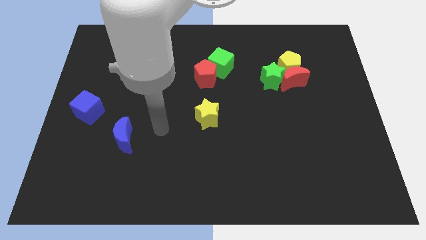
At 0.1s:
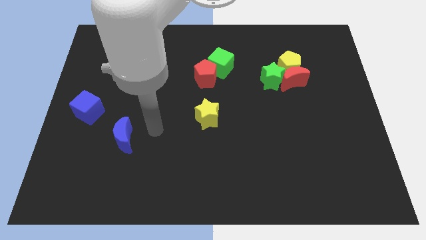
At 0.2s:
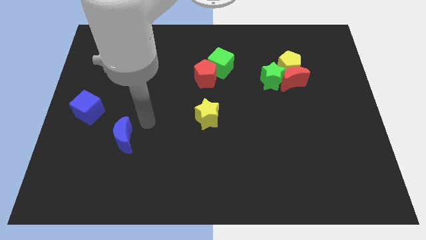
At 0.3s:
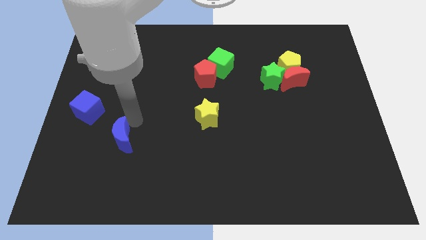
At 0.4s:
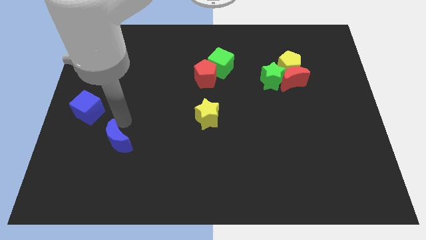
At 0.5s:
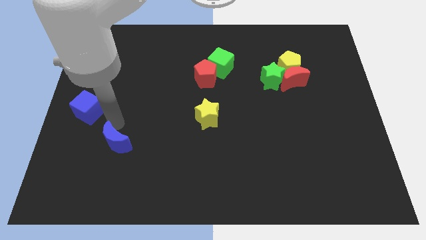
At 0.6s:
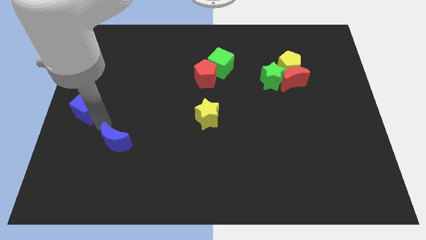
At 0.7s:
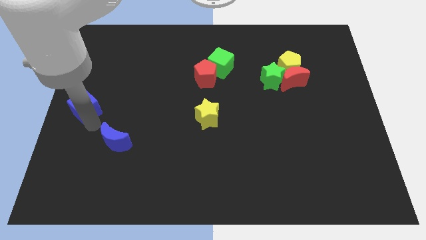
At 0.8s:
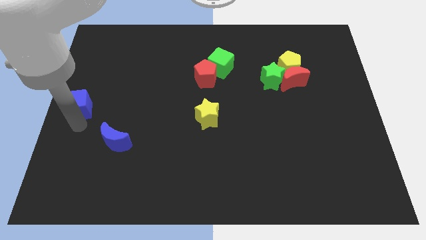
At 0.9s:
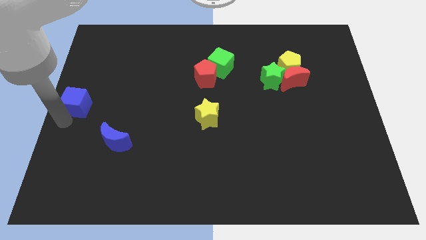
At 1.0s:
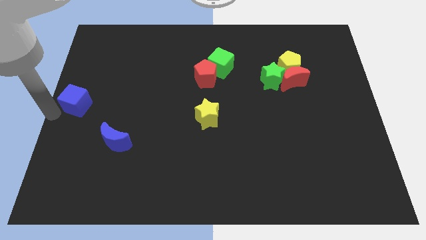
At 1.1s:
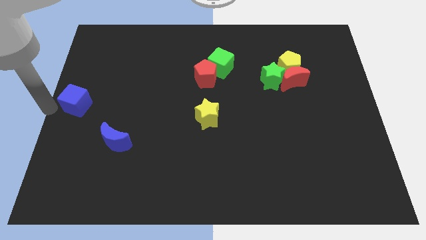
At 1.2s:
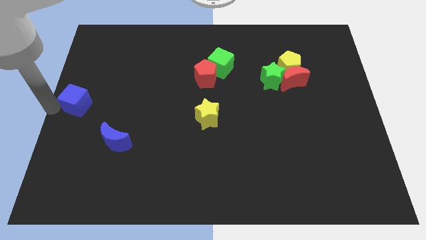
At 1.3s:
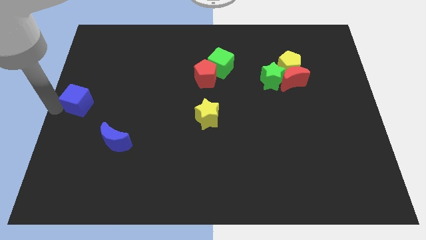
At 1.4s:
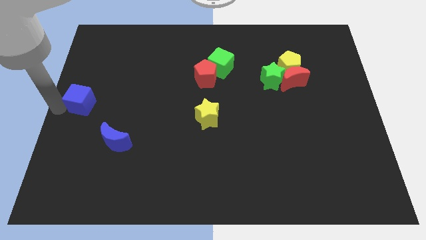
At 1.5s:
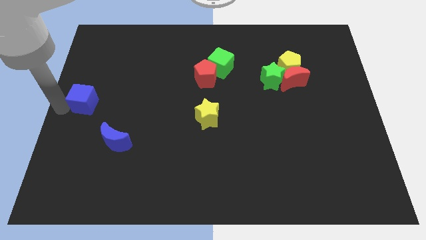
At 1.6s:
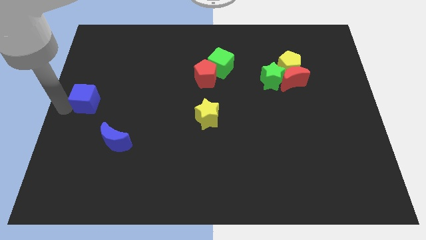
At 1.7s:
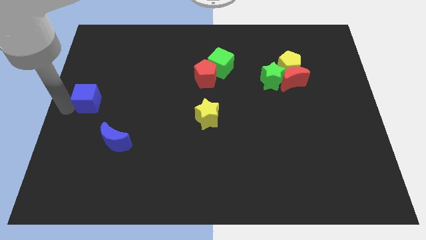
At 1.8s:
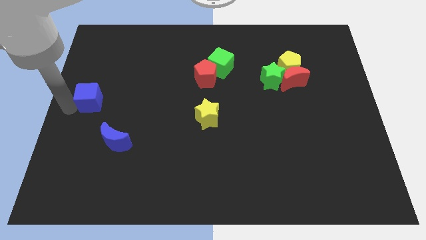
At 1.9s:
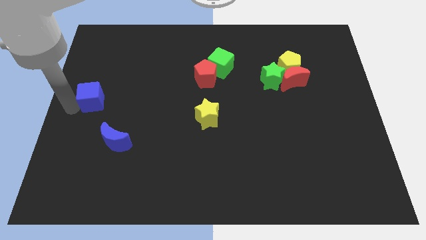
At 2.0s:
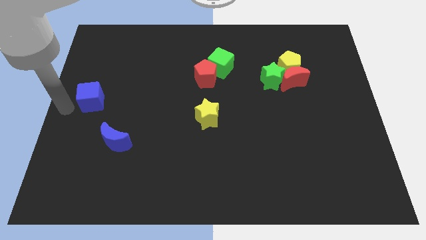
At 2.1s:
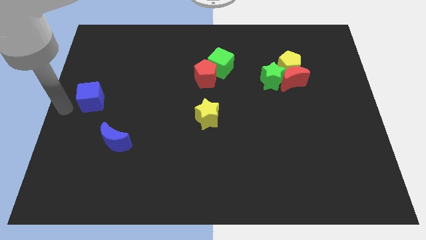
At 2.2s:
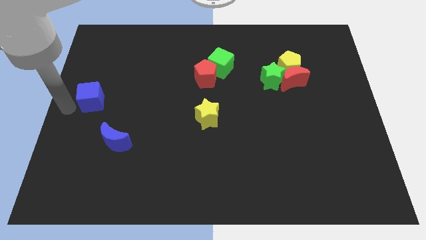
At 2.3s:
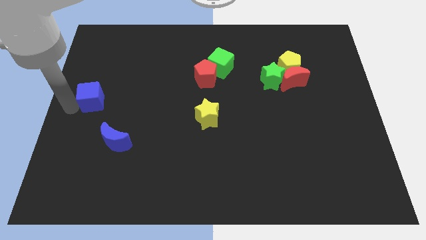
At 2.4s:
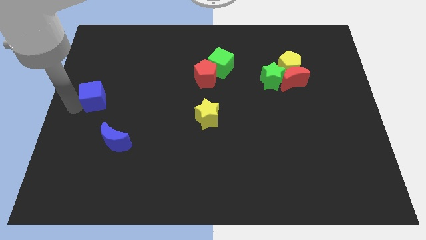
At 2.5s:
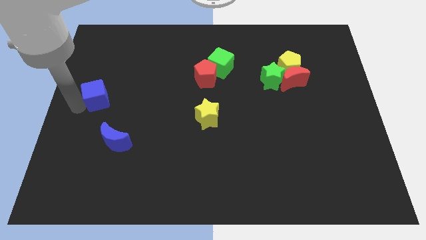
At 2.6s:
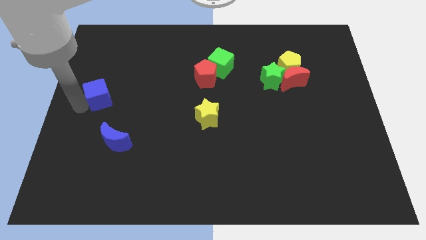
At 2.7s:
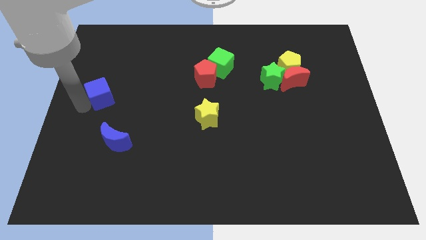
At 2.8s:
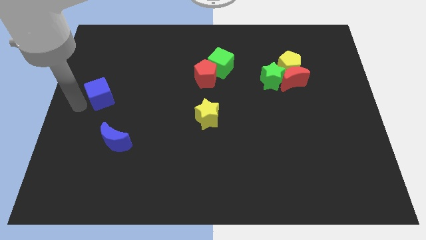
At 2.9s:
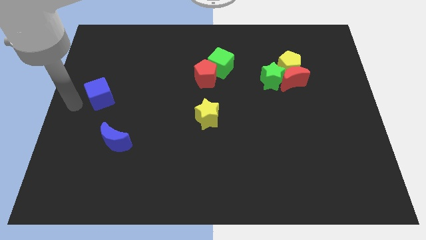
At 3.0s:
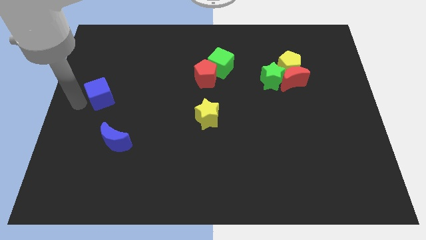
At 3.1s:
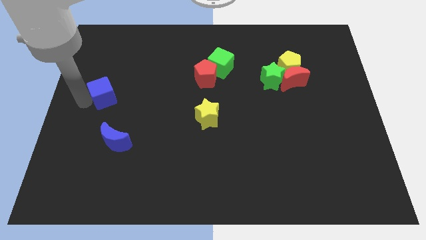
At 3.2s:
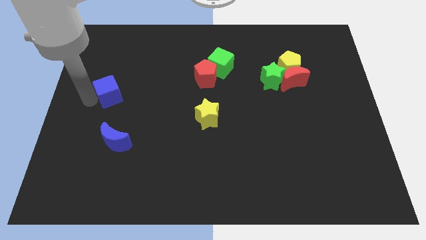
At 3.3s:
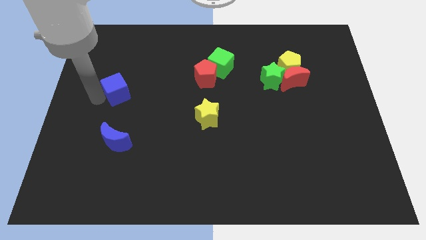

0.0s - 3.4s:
slightly slide the blue cube upwards and then to the right

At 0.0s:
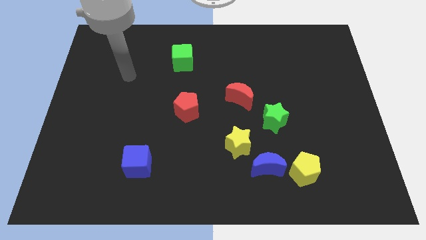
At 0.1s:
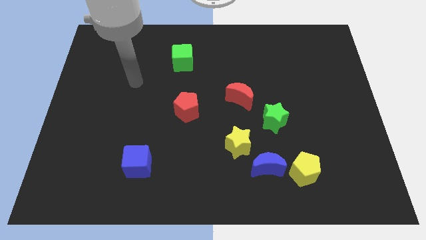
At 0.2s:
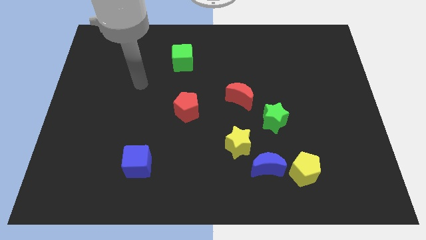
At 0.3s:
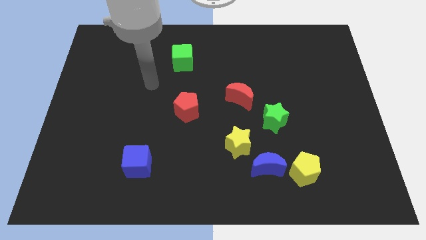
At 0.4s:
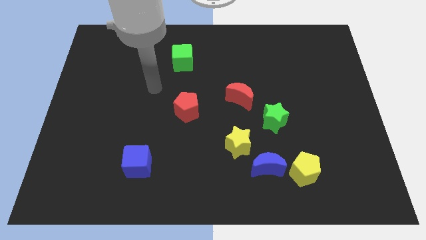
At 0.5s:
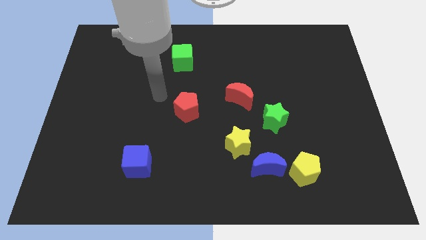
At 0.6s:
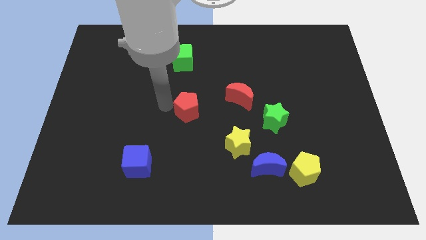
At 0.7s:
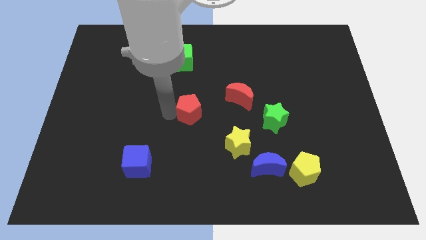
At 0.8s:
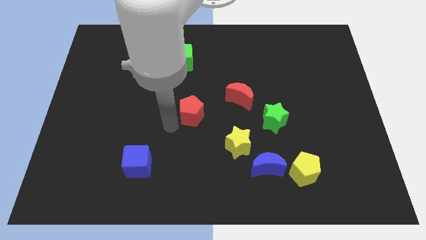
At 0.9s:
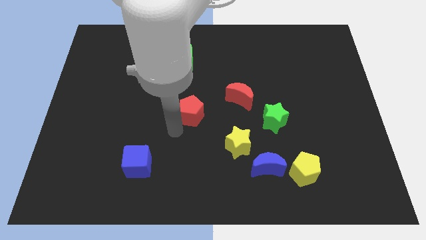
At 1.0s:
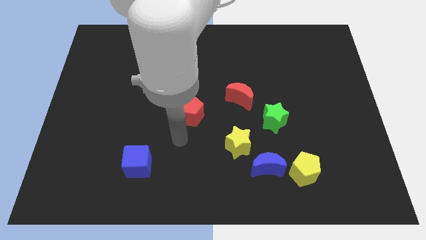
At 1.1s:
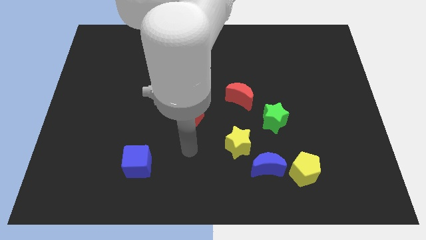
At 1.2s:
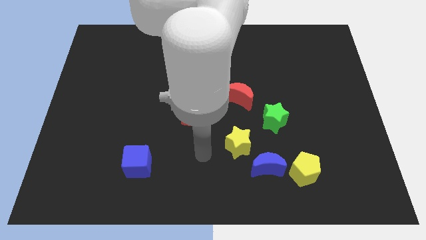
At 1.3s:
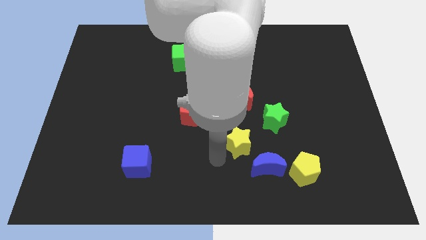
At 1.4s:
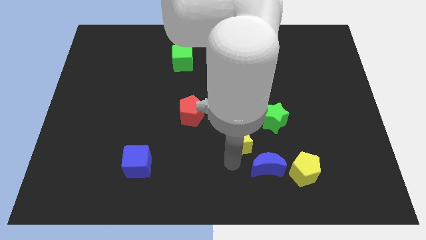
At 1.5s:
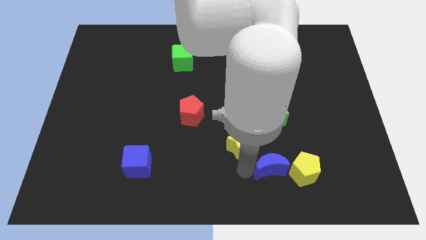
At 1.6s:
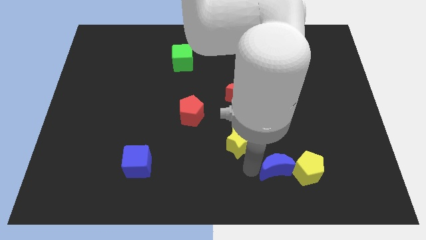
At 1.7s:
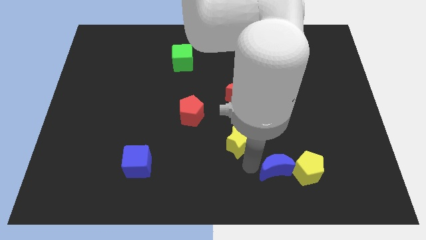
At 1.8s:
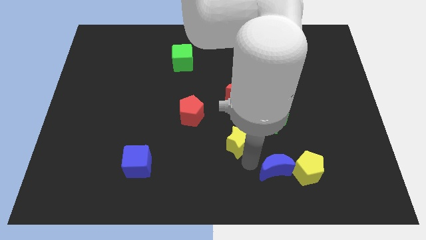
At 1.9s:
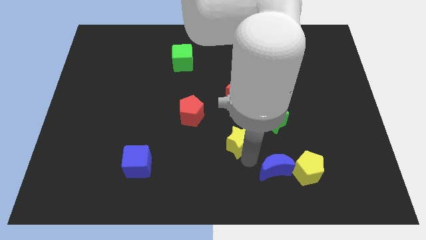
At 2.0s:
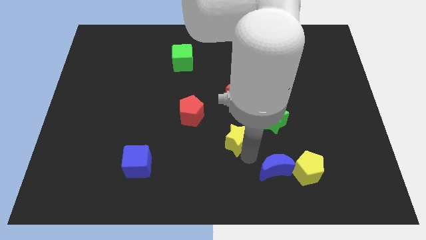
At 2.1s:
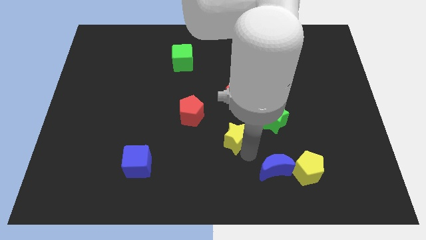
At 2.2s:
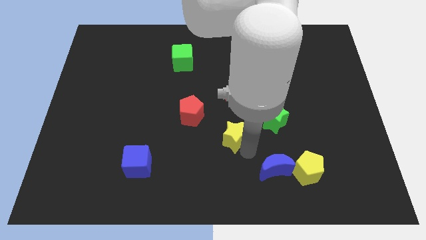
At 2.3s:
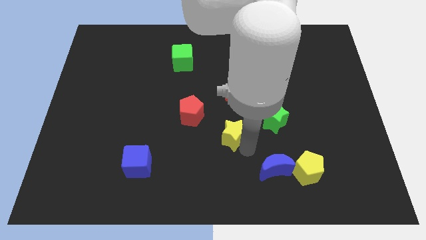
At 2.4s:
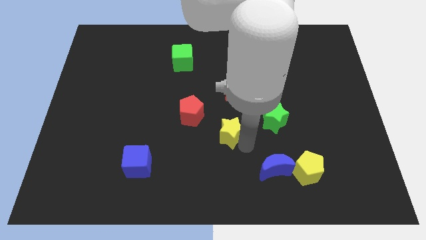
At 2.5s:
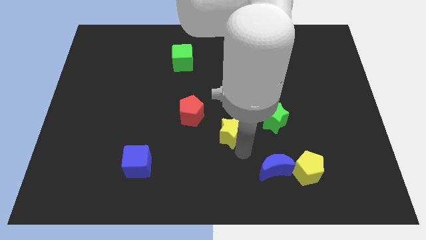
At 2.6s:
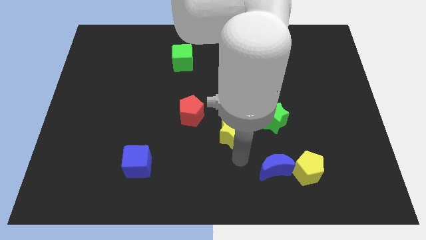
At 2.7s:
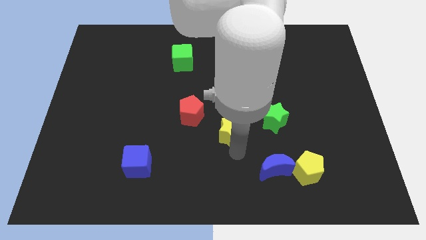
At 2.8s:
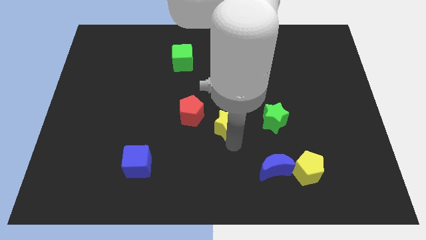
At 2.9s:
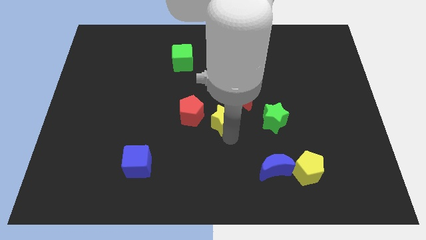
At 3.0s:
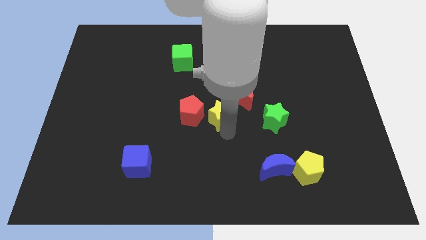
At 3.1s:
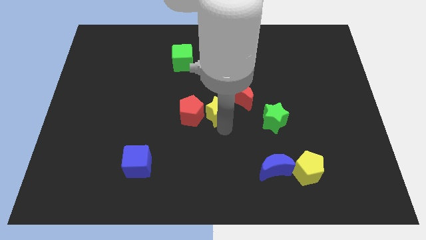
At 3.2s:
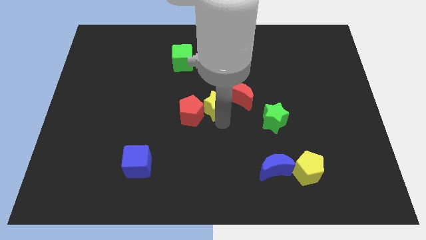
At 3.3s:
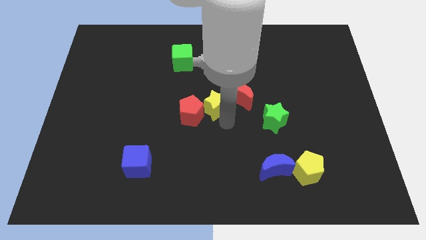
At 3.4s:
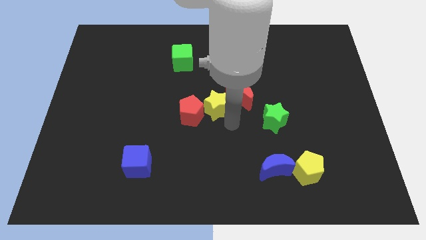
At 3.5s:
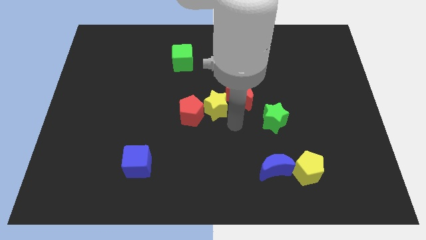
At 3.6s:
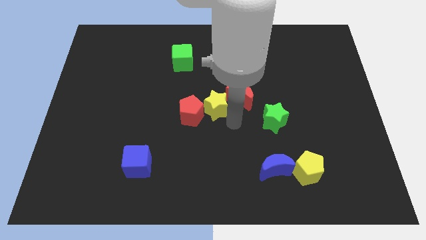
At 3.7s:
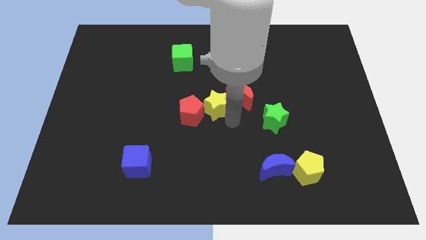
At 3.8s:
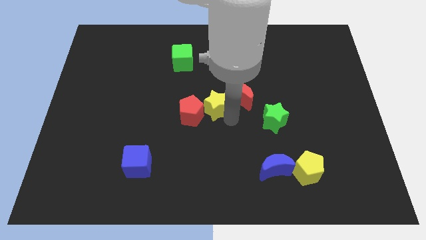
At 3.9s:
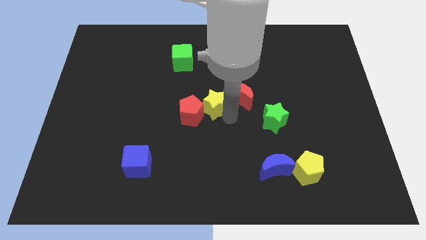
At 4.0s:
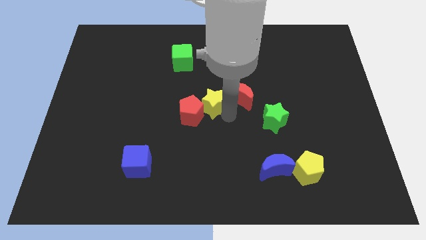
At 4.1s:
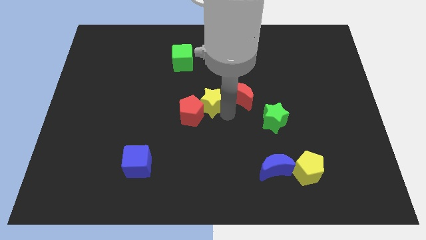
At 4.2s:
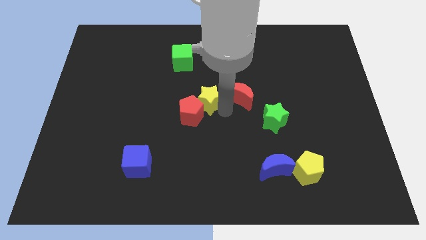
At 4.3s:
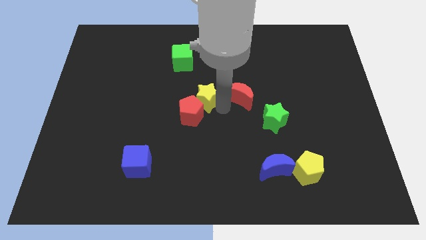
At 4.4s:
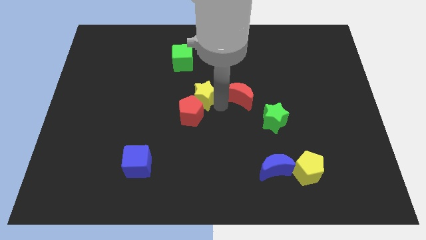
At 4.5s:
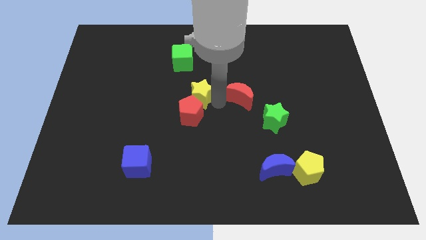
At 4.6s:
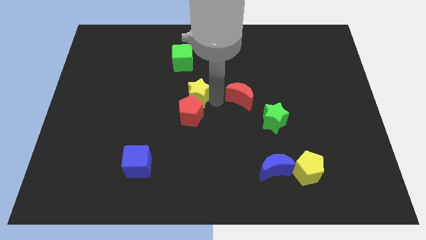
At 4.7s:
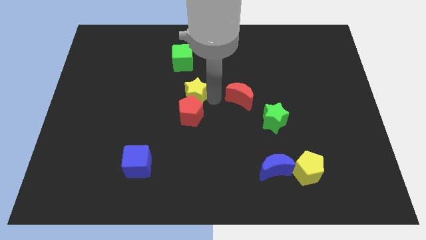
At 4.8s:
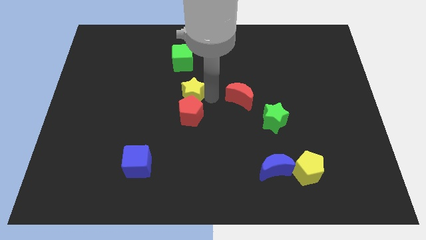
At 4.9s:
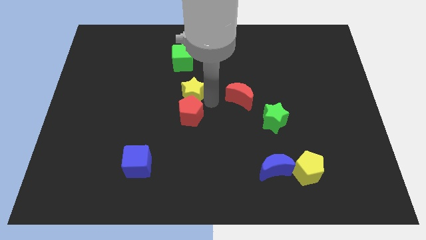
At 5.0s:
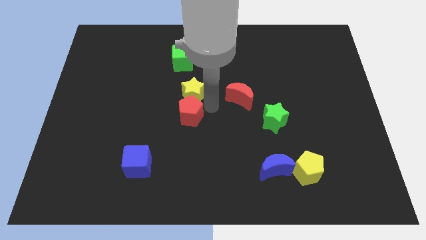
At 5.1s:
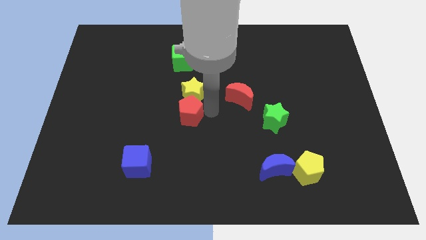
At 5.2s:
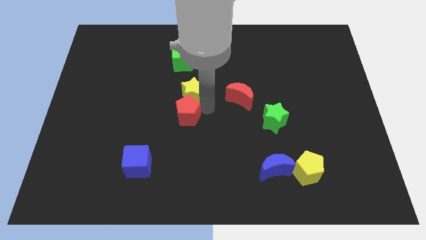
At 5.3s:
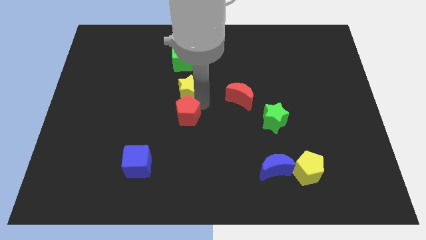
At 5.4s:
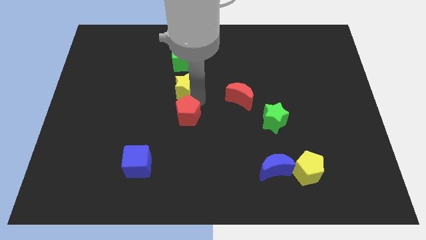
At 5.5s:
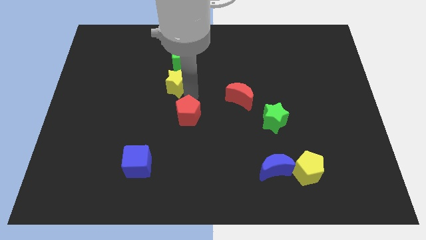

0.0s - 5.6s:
slide the yellow star up and then to the left
